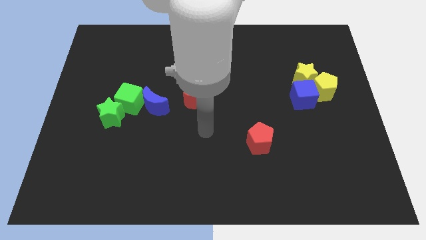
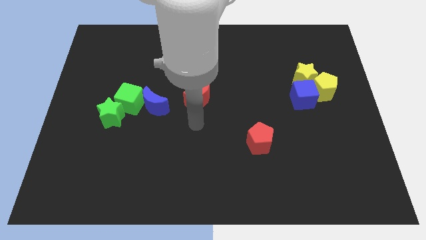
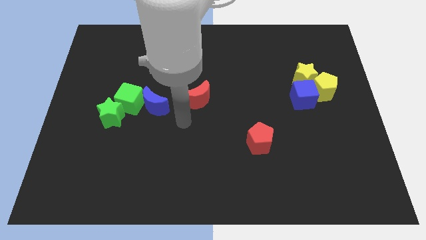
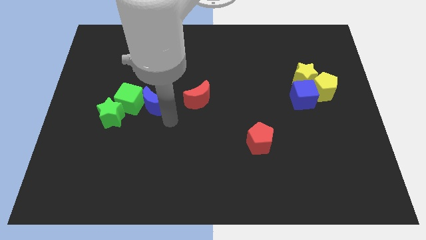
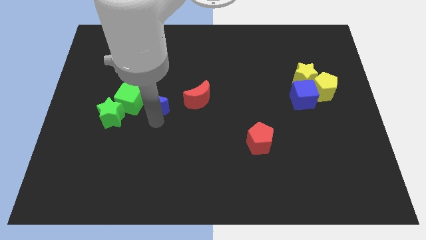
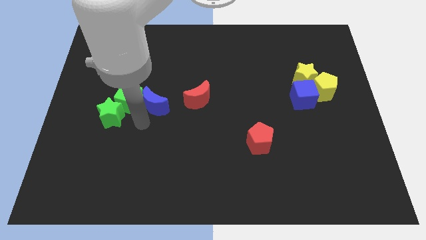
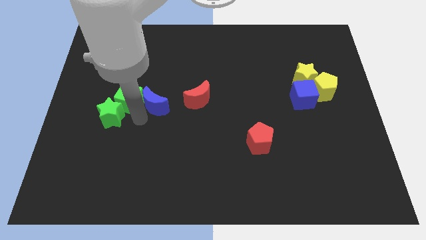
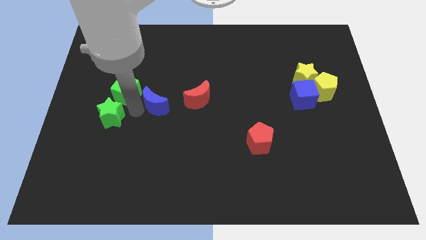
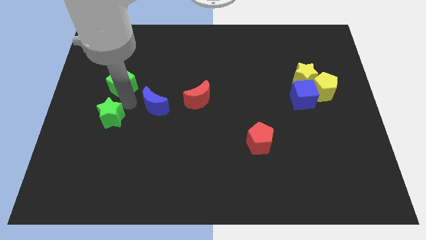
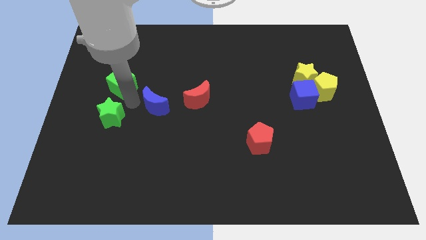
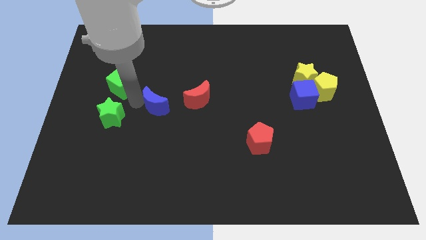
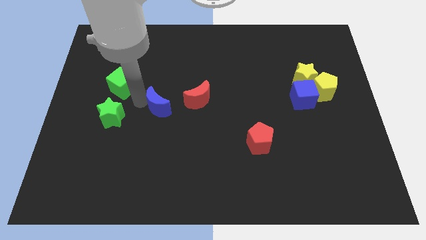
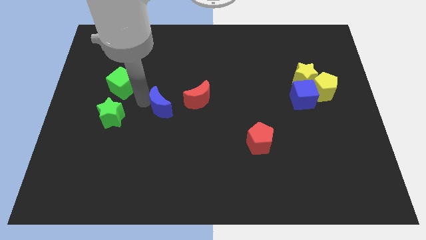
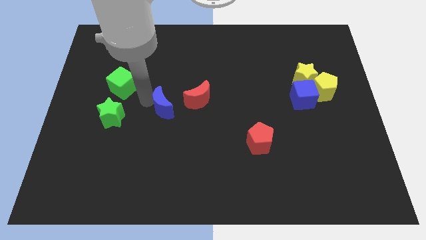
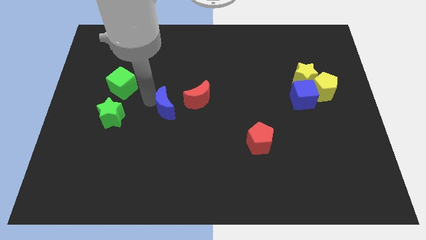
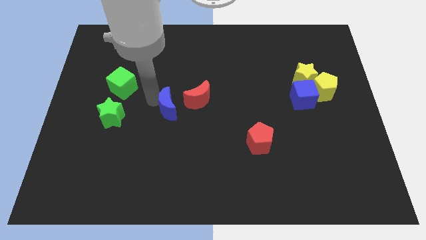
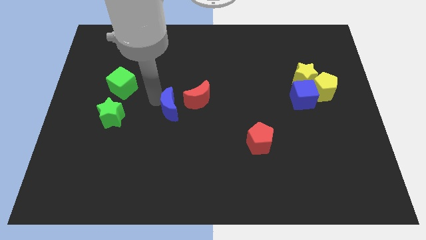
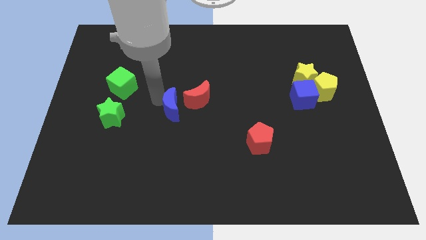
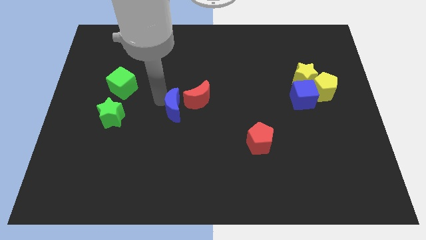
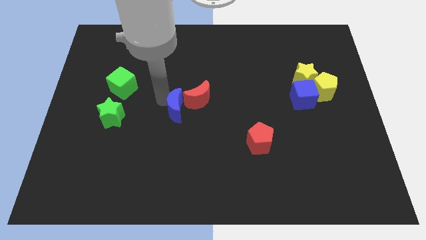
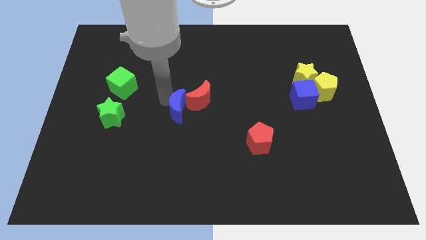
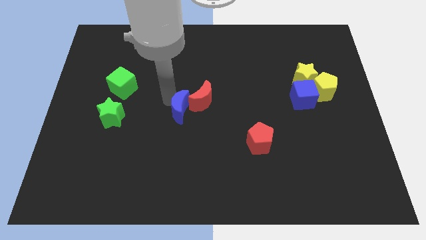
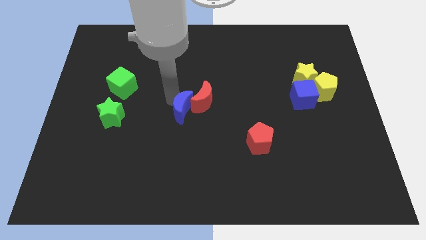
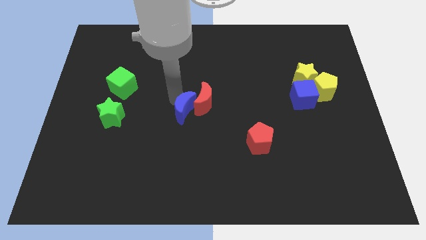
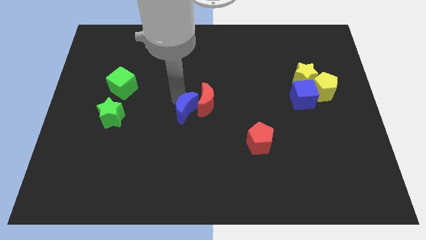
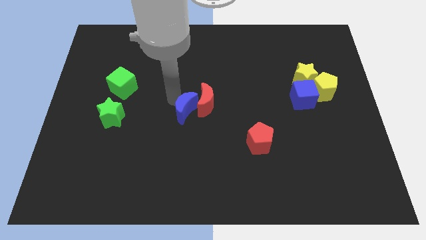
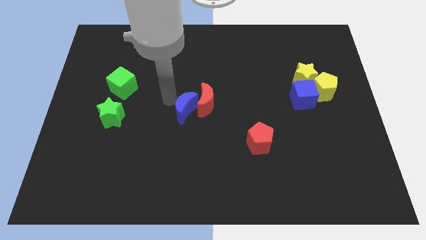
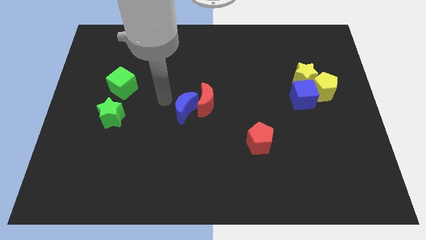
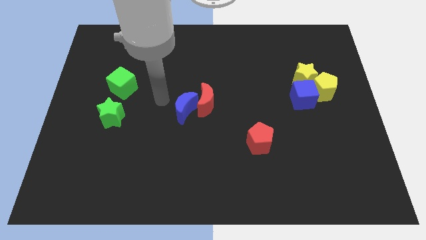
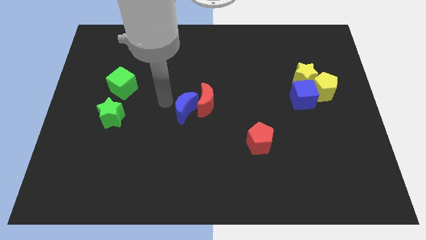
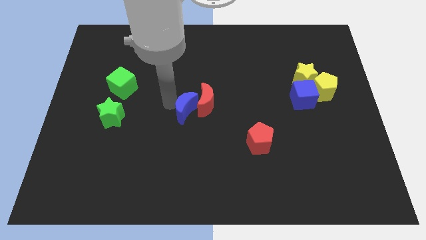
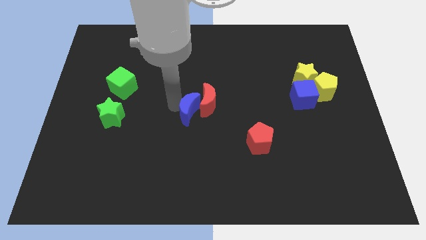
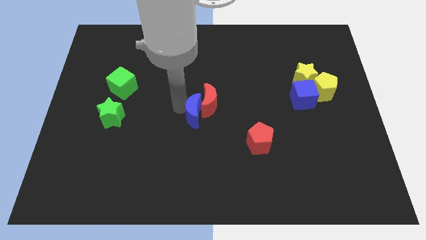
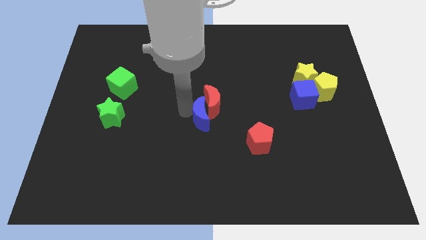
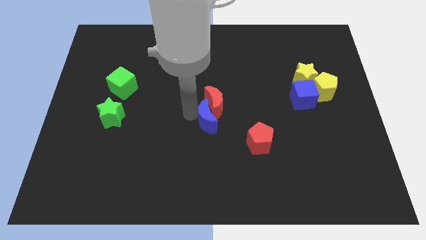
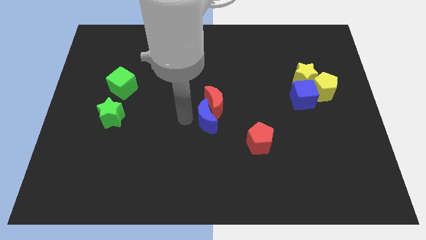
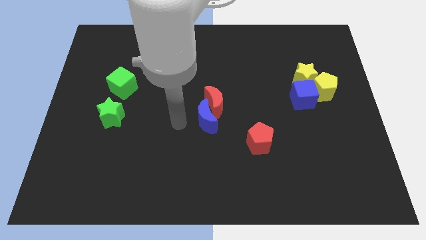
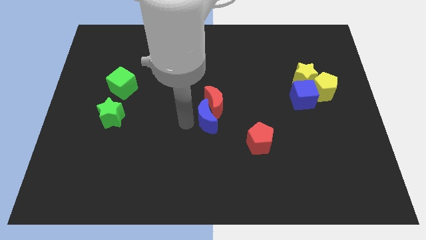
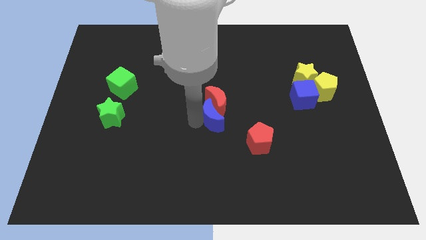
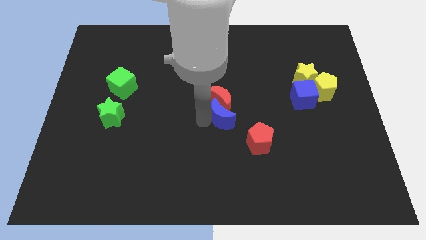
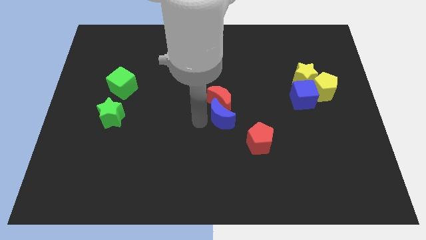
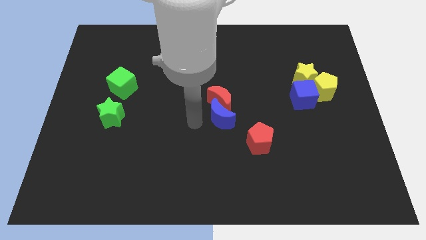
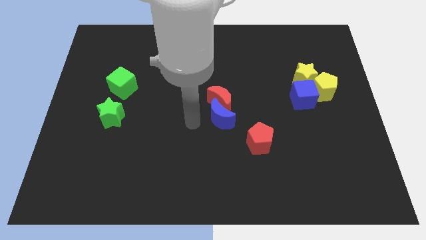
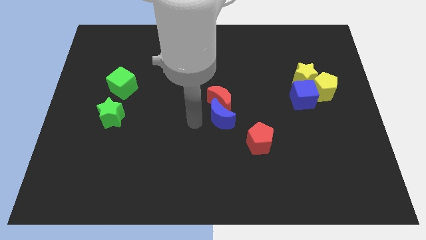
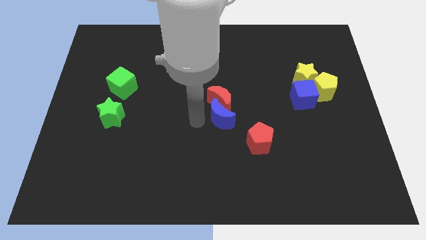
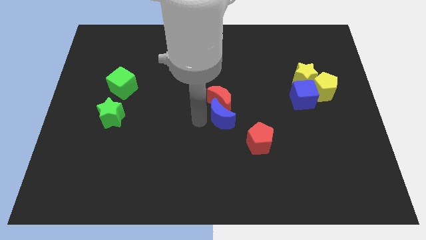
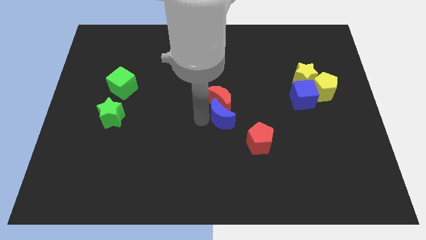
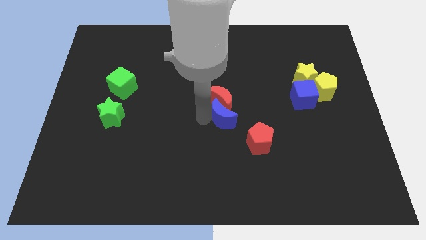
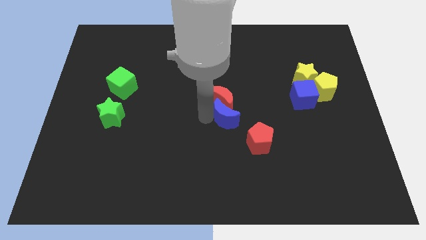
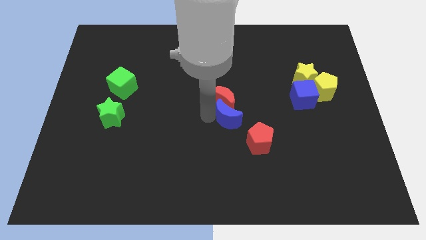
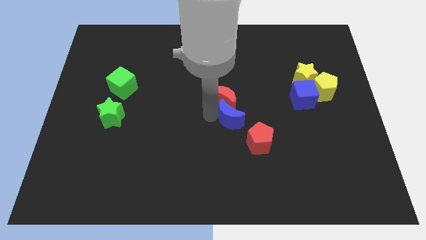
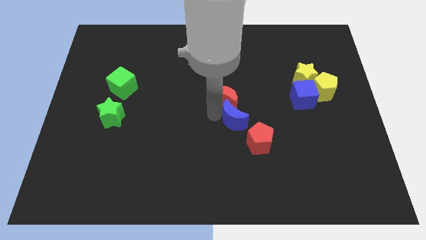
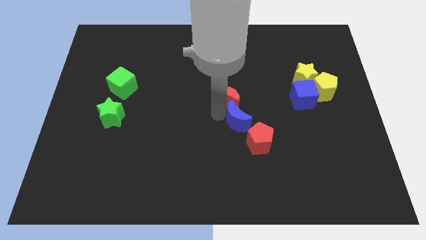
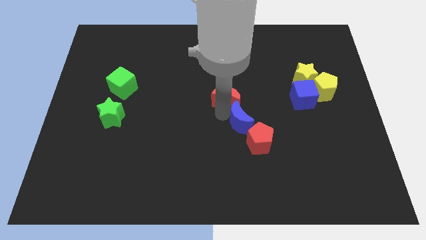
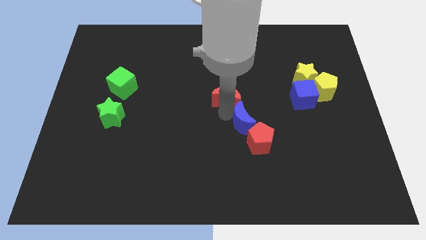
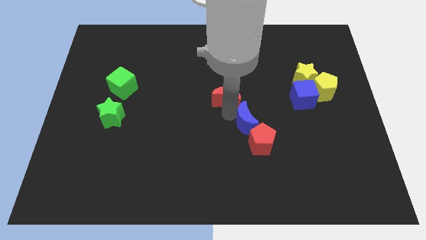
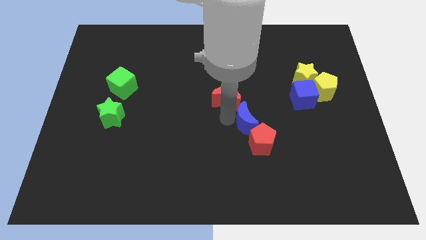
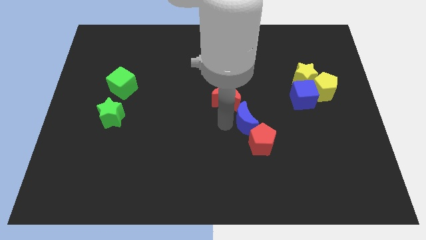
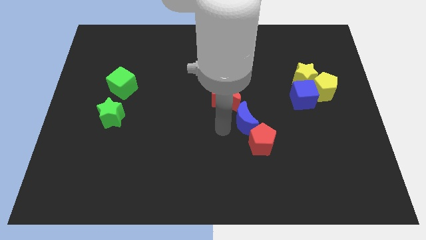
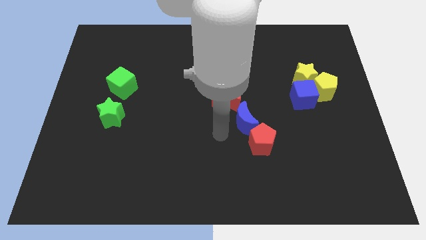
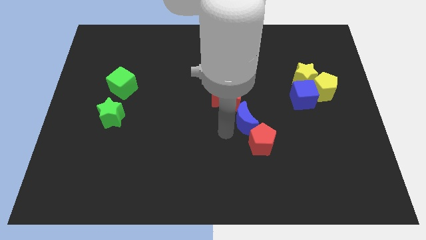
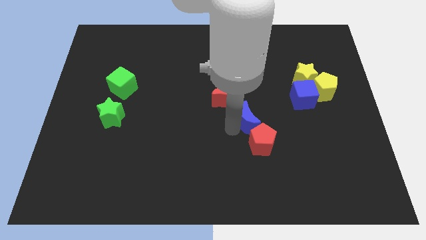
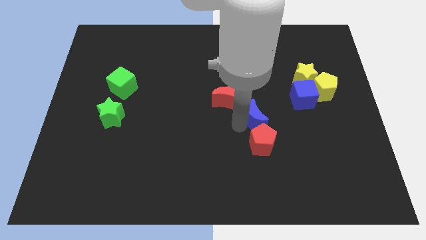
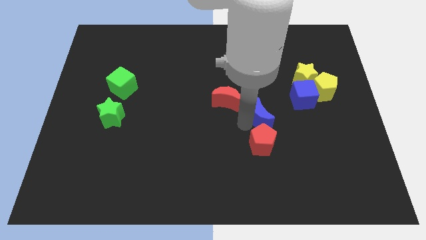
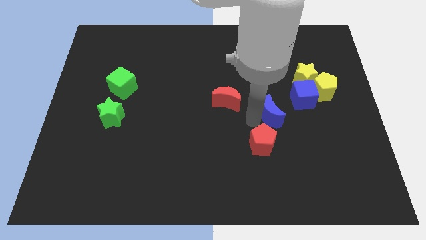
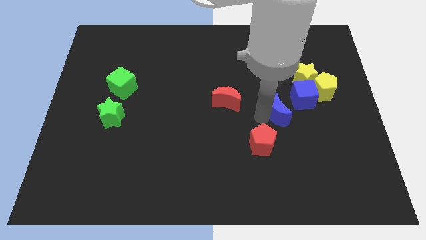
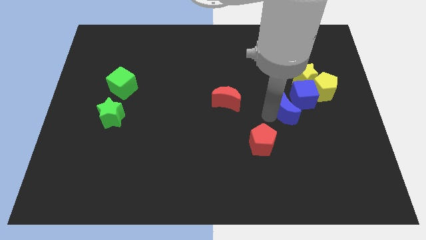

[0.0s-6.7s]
push the blue moon to the bottom left of the yellow pentagon

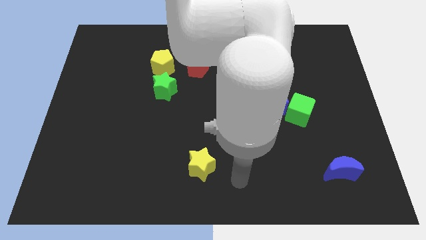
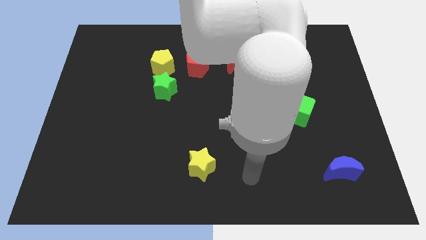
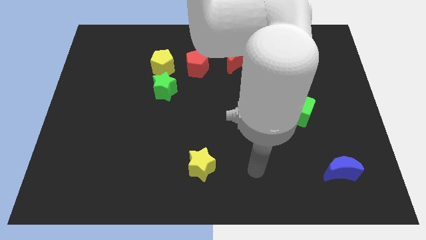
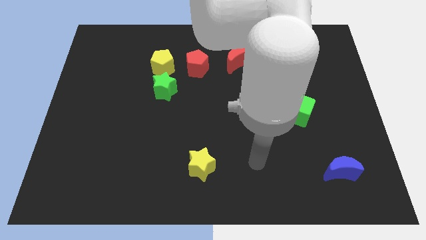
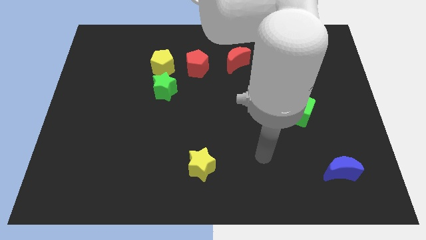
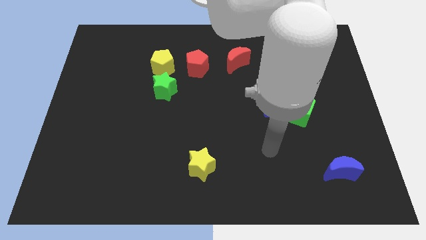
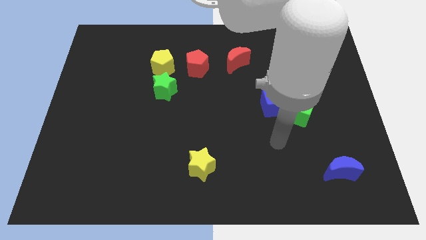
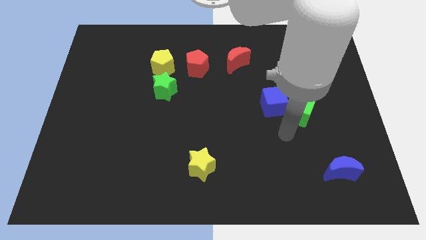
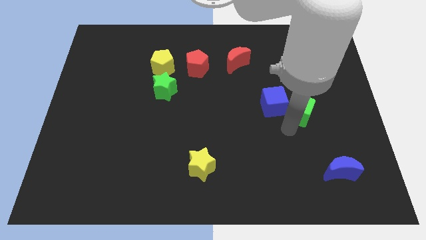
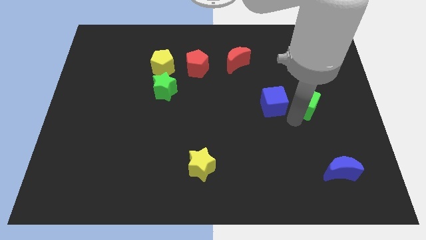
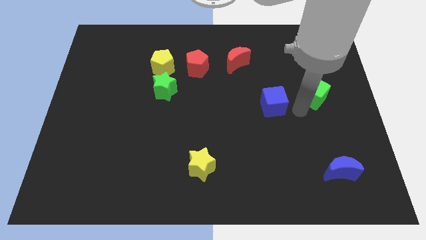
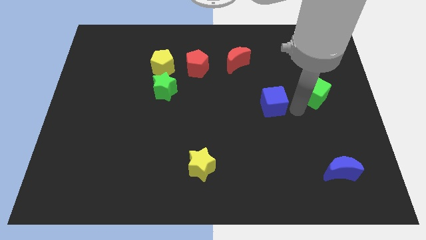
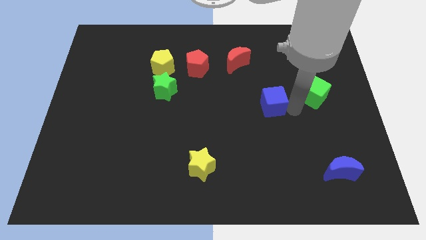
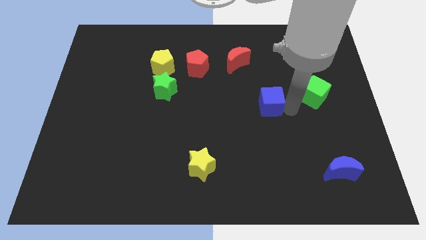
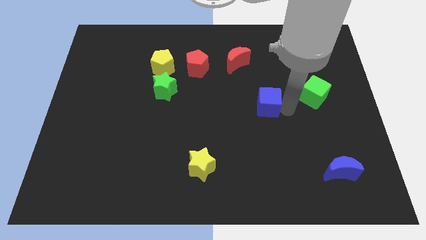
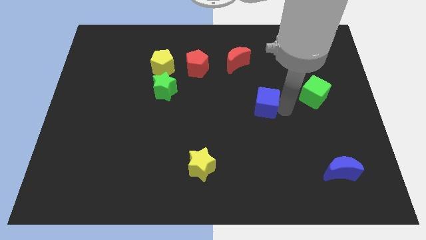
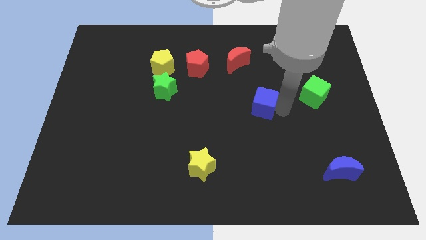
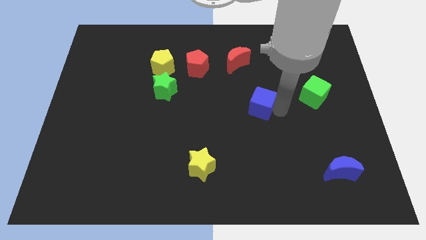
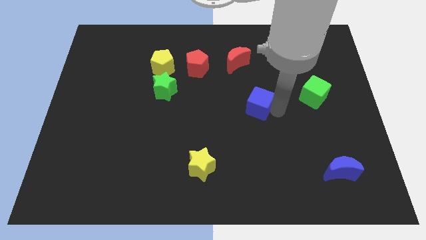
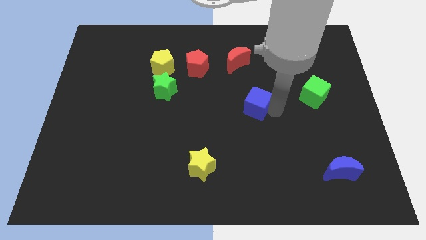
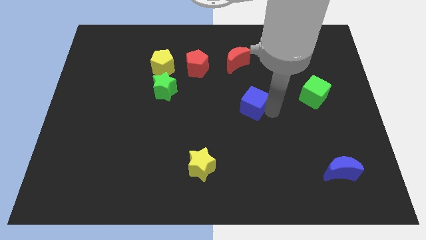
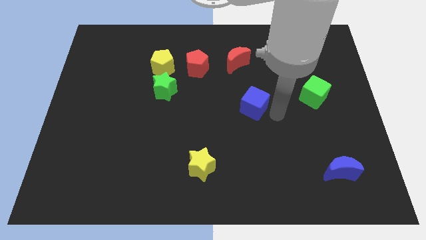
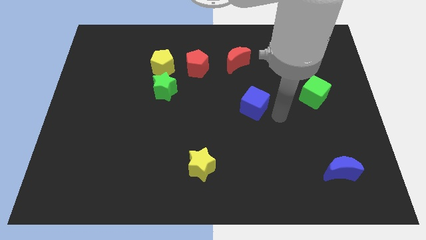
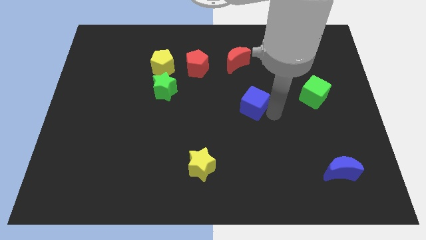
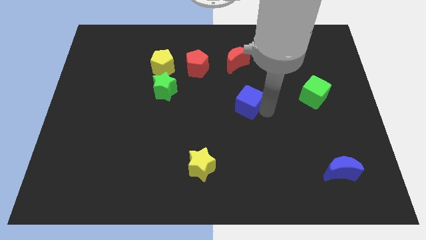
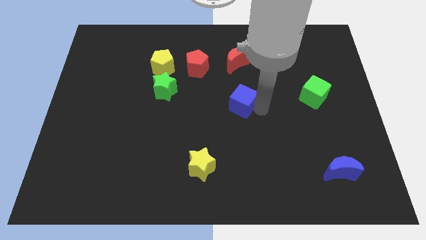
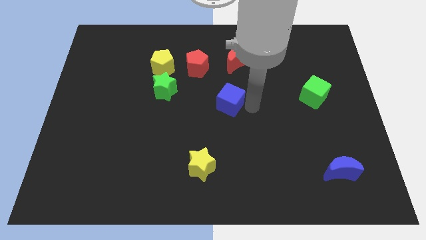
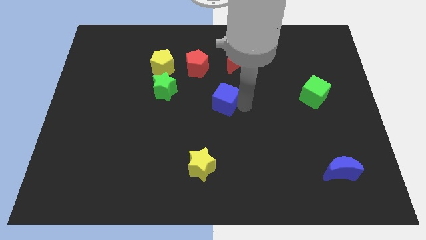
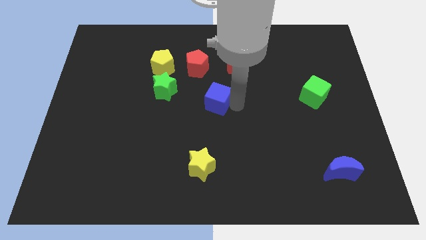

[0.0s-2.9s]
put the blue cube to the right of the green star
